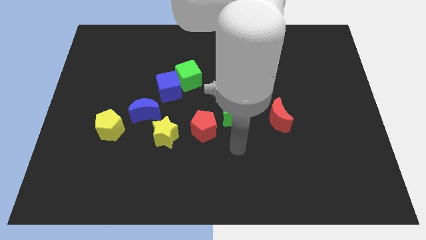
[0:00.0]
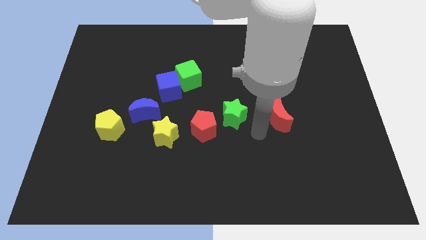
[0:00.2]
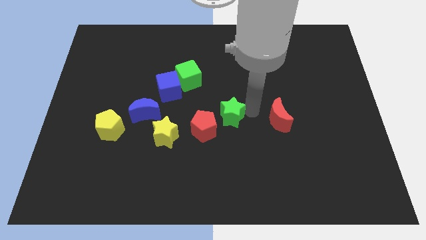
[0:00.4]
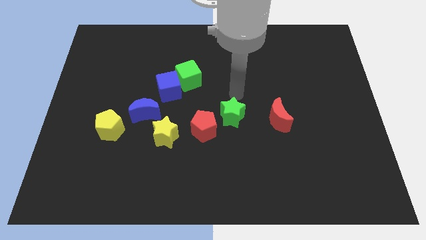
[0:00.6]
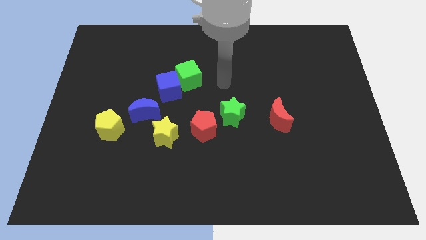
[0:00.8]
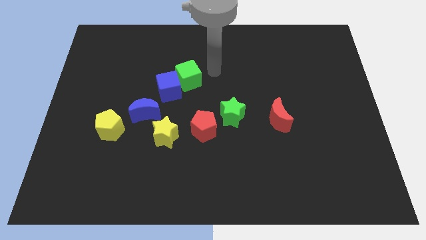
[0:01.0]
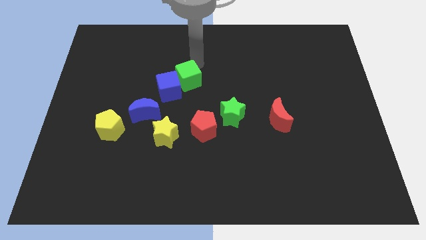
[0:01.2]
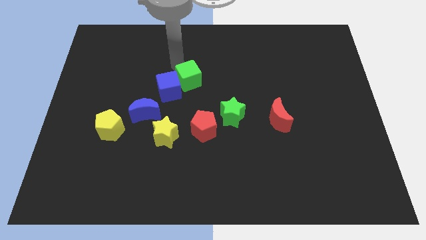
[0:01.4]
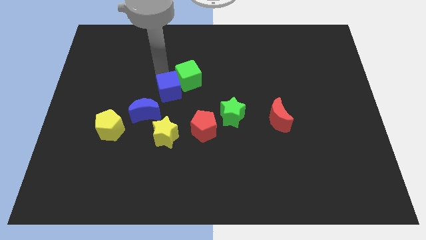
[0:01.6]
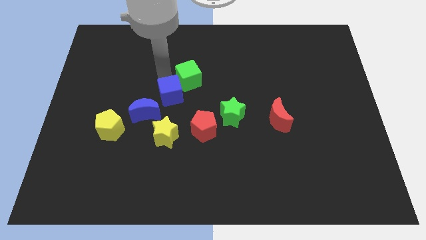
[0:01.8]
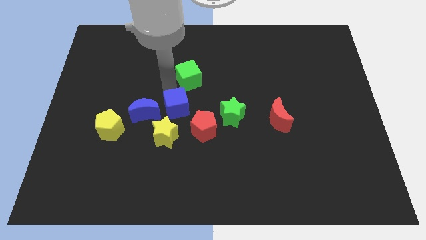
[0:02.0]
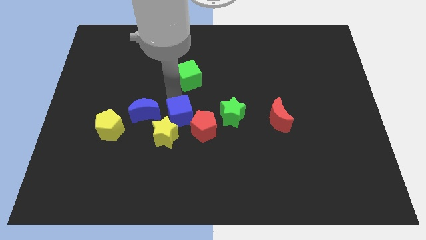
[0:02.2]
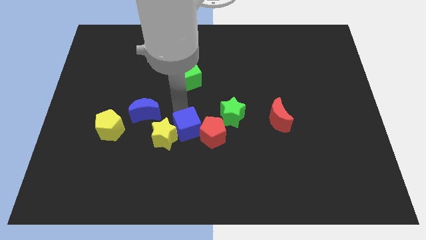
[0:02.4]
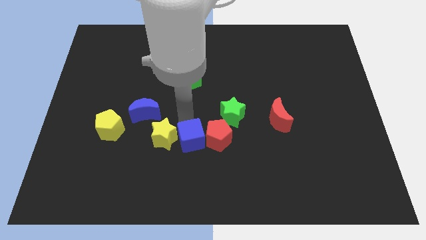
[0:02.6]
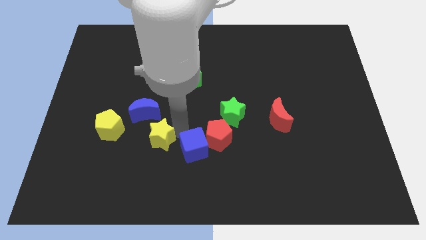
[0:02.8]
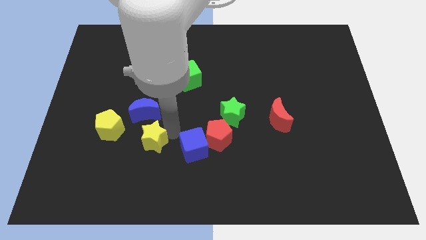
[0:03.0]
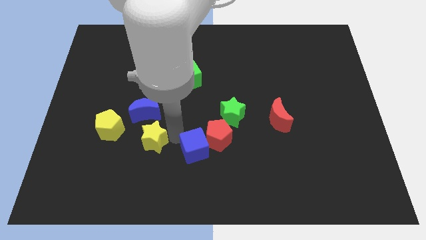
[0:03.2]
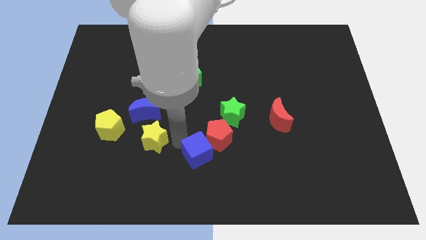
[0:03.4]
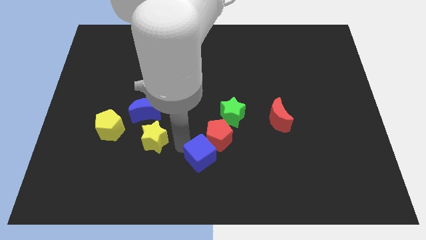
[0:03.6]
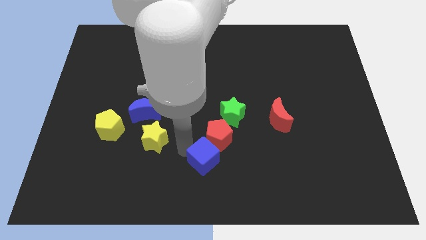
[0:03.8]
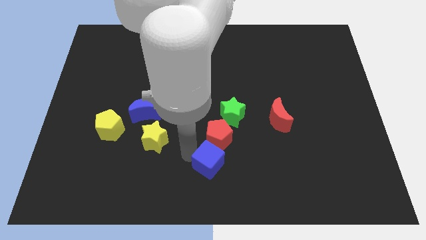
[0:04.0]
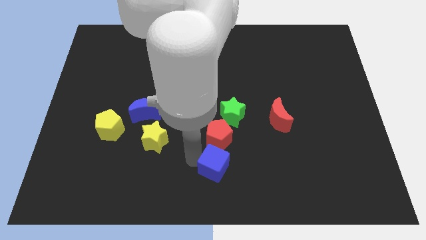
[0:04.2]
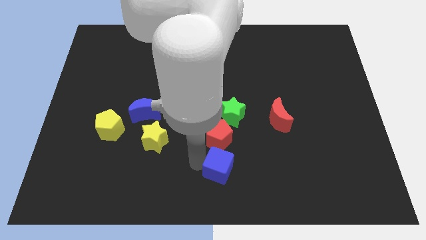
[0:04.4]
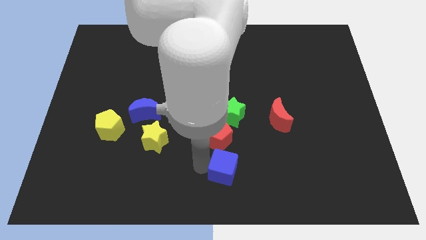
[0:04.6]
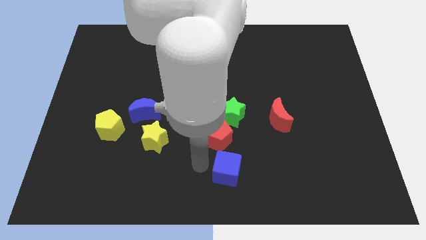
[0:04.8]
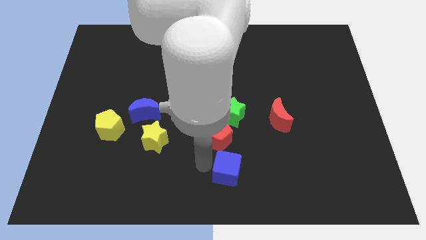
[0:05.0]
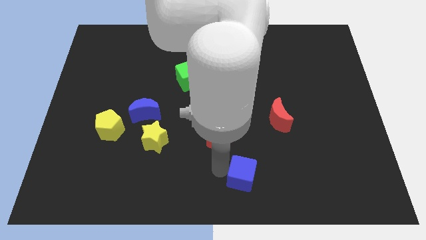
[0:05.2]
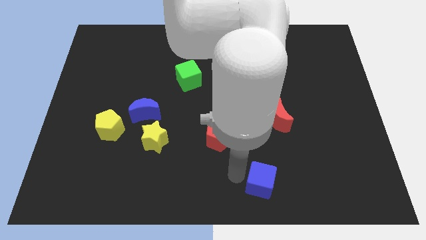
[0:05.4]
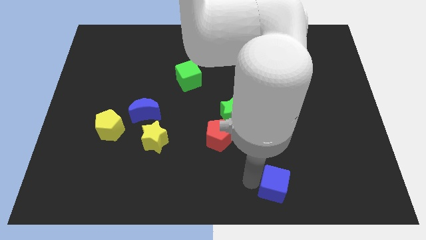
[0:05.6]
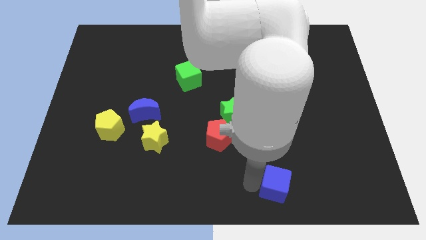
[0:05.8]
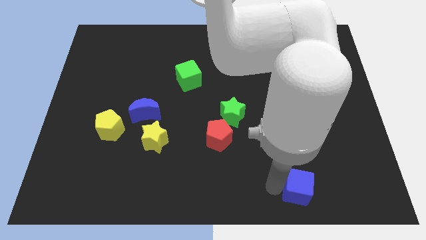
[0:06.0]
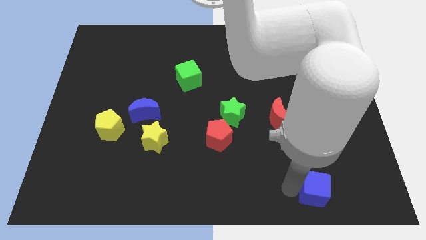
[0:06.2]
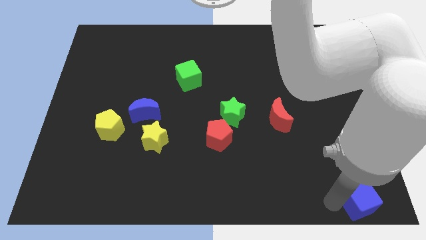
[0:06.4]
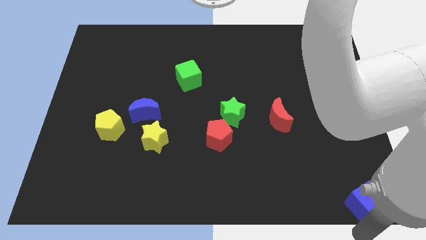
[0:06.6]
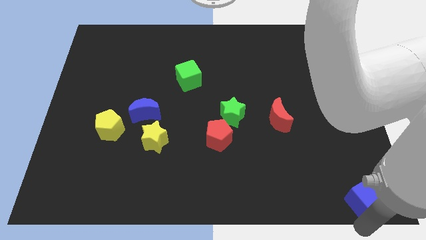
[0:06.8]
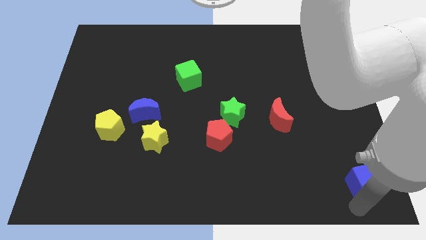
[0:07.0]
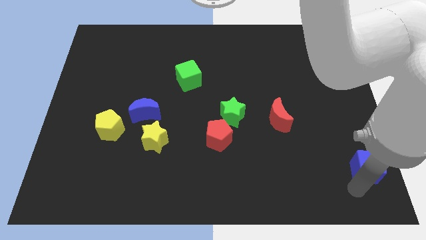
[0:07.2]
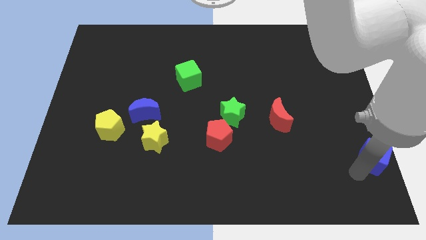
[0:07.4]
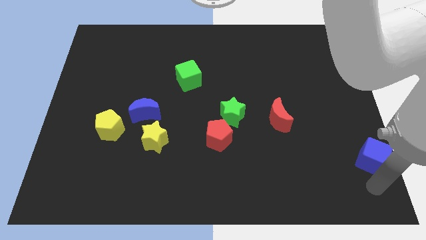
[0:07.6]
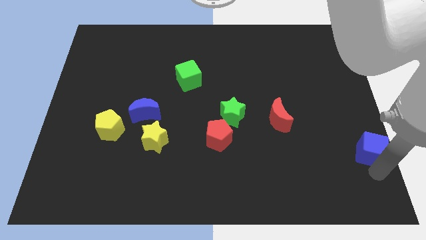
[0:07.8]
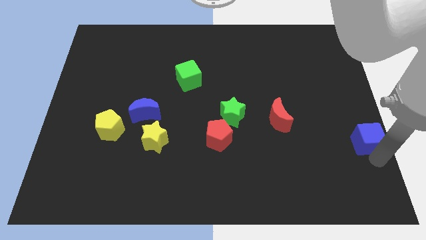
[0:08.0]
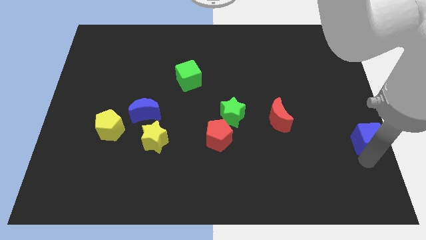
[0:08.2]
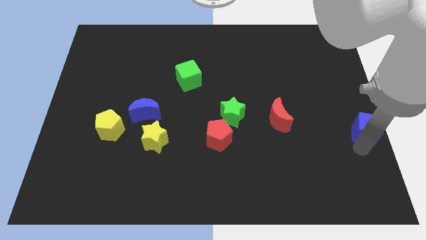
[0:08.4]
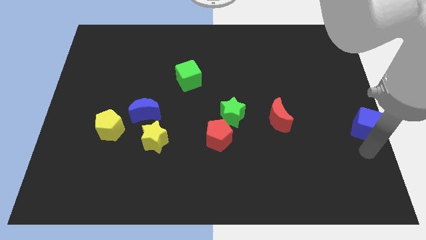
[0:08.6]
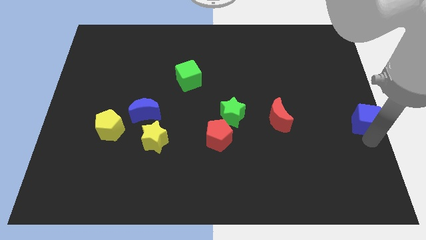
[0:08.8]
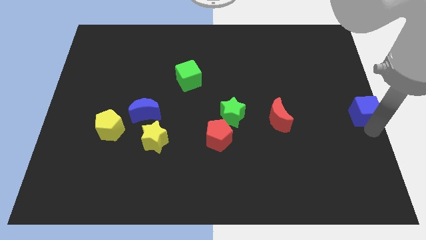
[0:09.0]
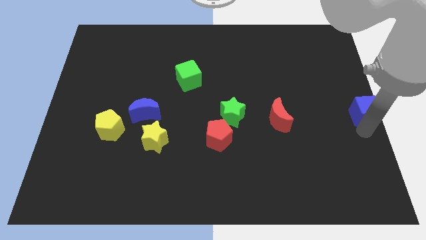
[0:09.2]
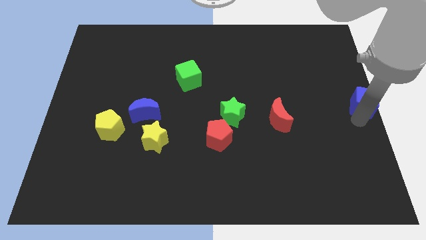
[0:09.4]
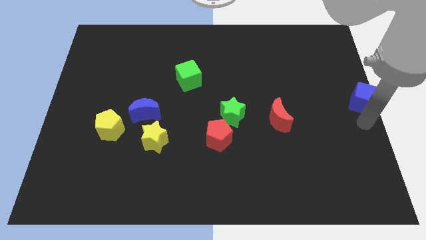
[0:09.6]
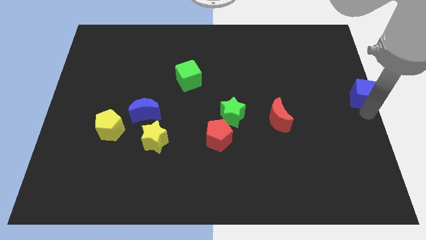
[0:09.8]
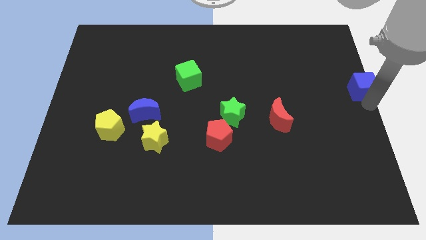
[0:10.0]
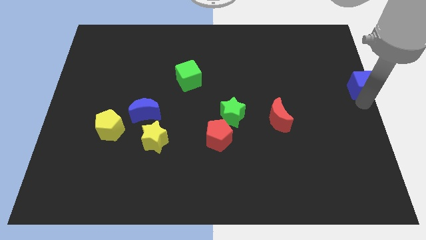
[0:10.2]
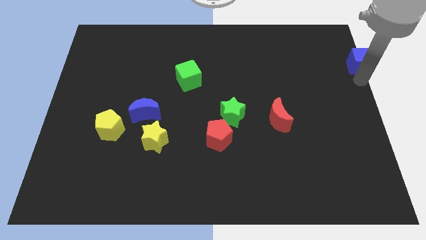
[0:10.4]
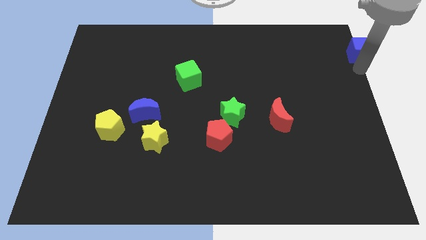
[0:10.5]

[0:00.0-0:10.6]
move the blue cube to the top right

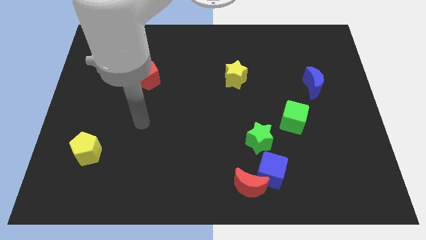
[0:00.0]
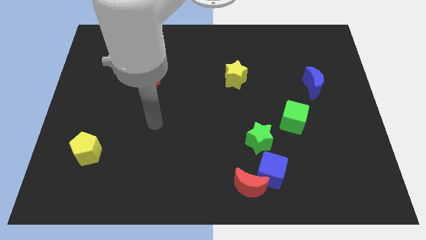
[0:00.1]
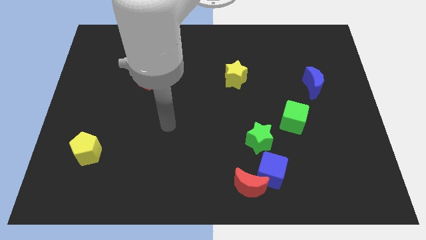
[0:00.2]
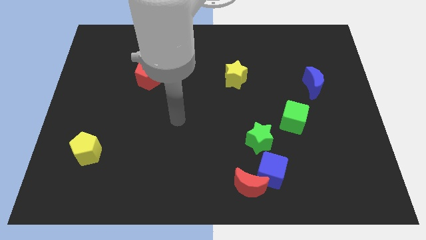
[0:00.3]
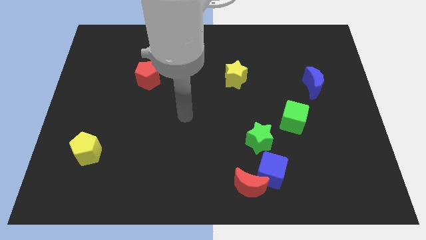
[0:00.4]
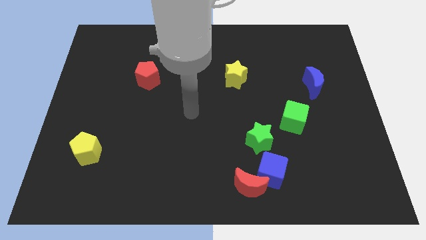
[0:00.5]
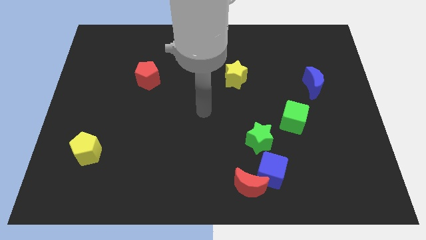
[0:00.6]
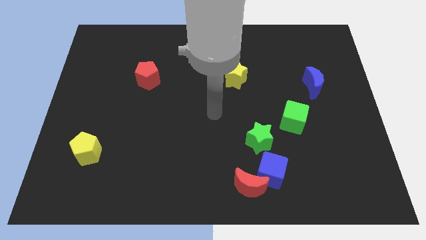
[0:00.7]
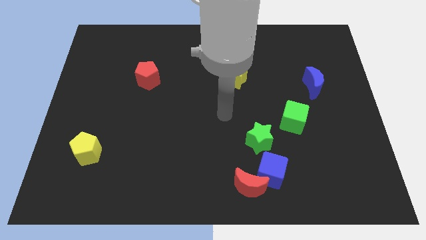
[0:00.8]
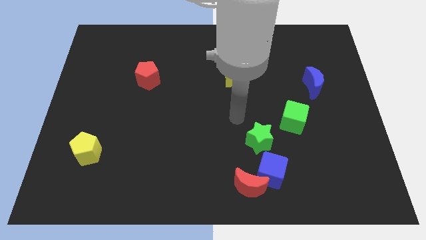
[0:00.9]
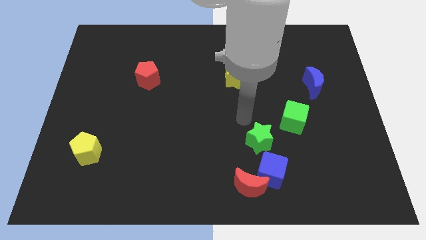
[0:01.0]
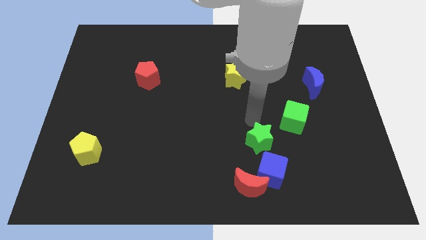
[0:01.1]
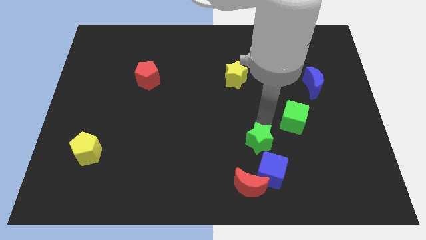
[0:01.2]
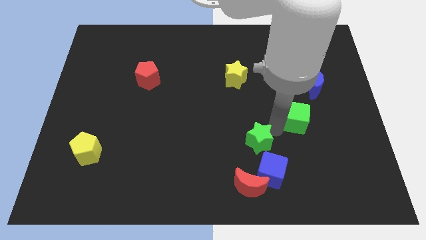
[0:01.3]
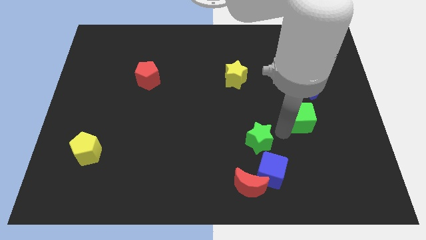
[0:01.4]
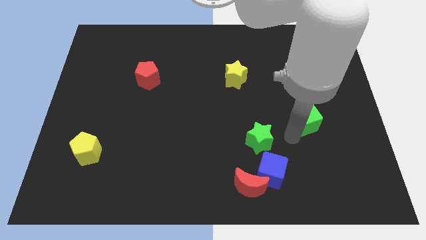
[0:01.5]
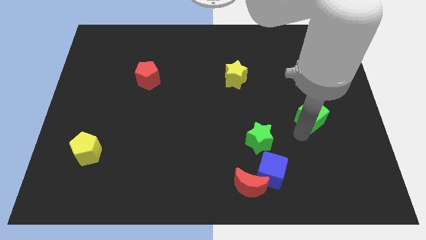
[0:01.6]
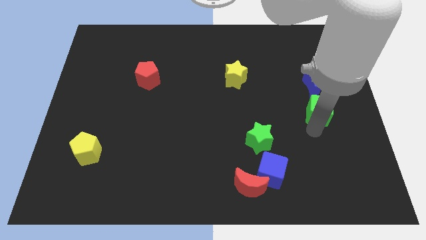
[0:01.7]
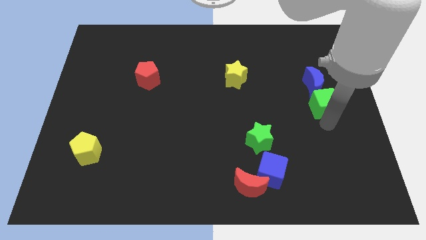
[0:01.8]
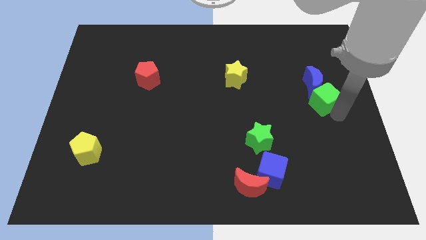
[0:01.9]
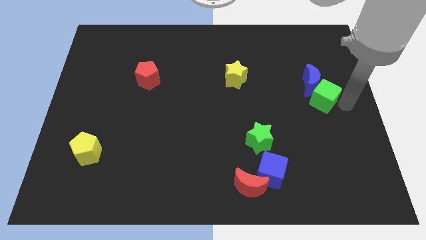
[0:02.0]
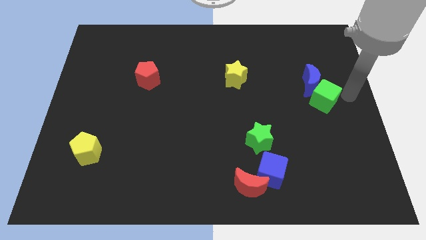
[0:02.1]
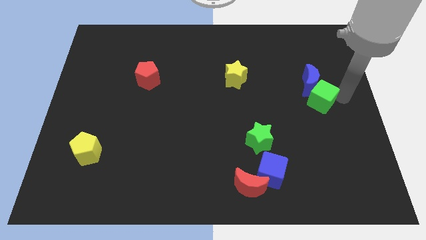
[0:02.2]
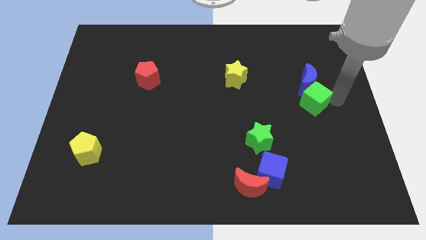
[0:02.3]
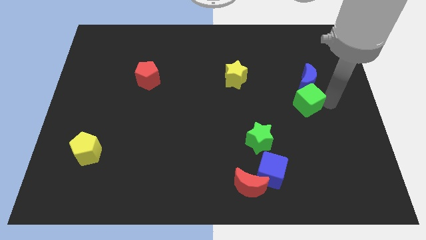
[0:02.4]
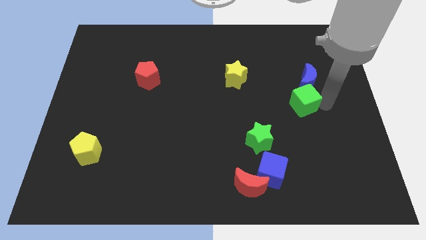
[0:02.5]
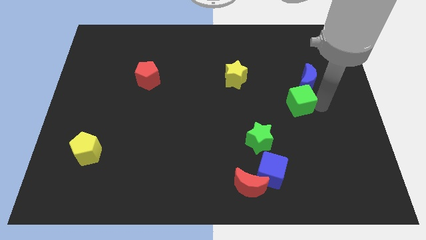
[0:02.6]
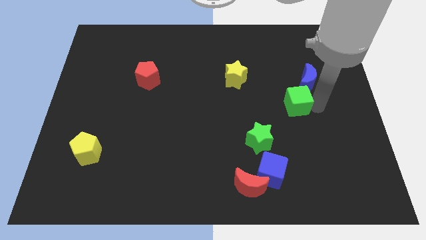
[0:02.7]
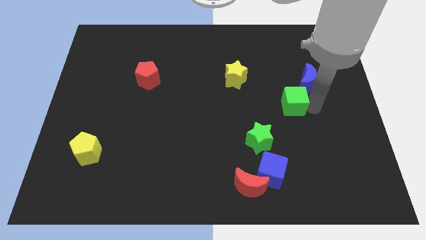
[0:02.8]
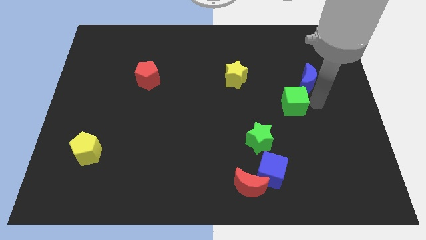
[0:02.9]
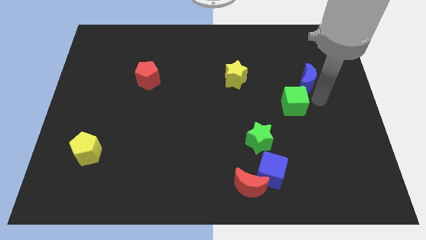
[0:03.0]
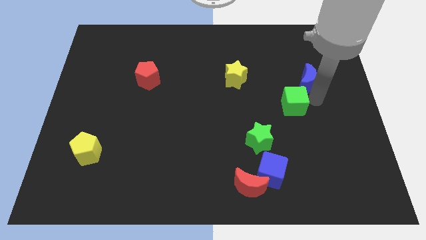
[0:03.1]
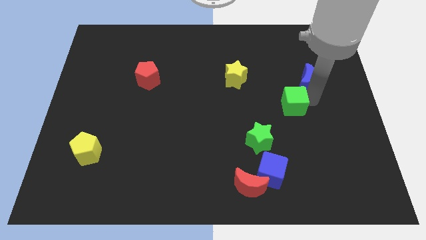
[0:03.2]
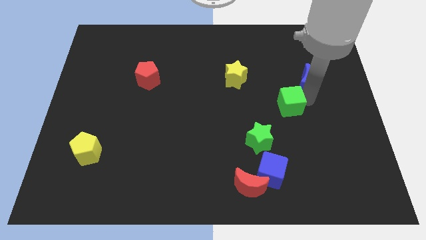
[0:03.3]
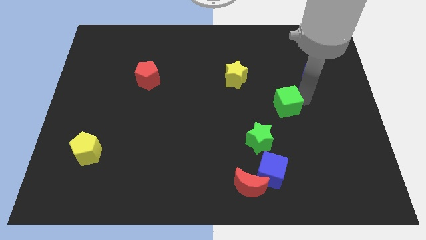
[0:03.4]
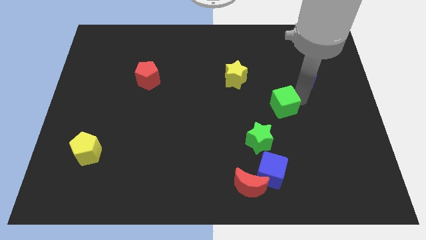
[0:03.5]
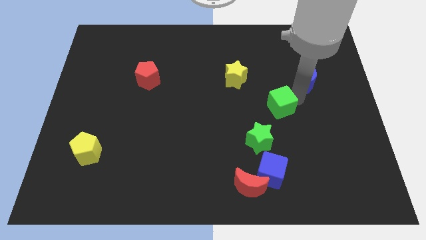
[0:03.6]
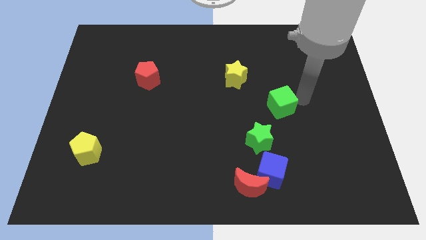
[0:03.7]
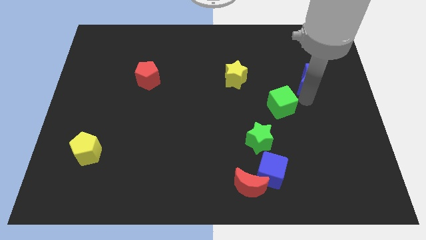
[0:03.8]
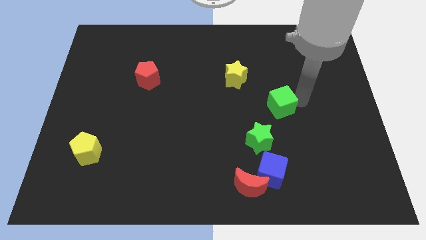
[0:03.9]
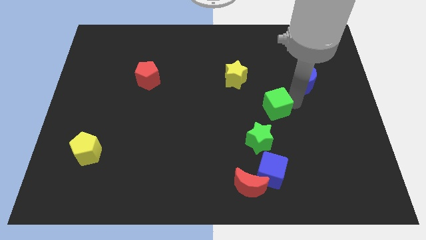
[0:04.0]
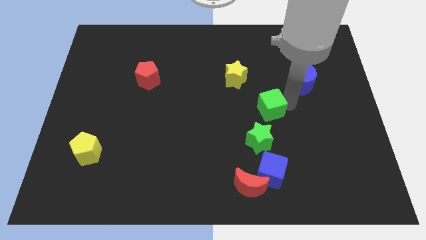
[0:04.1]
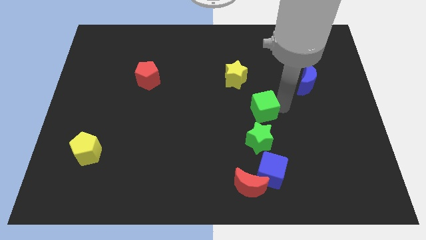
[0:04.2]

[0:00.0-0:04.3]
push the green cube to the center of the board
